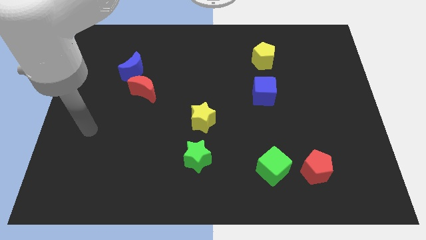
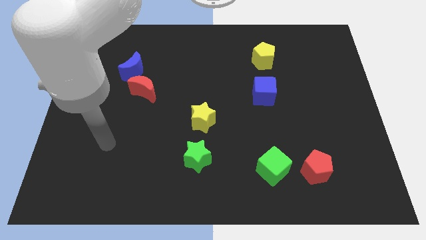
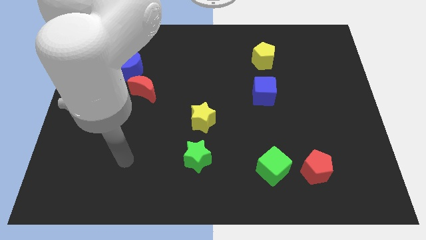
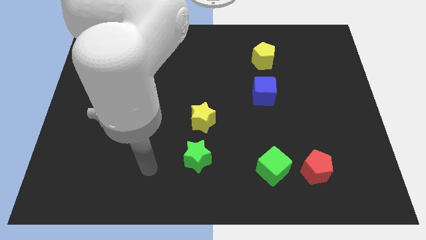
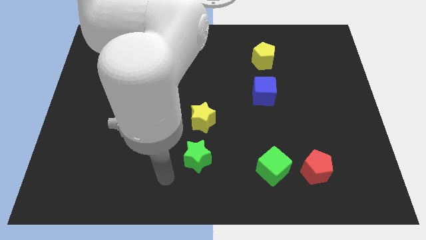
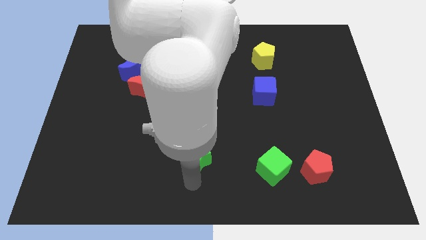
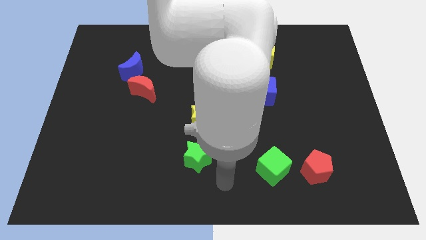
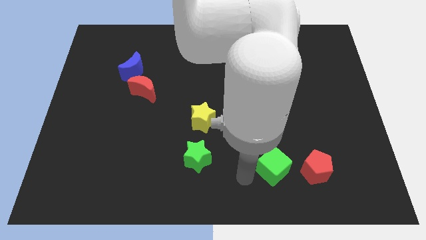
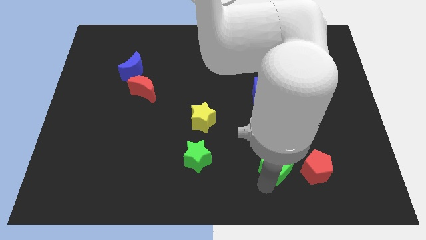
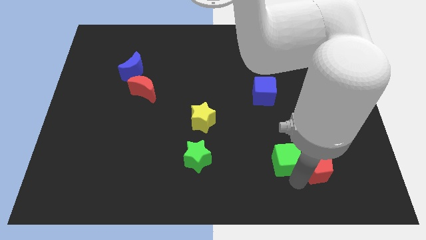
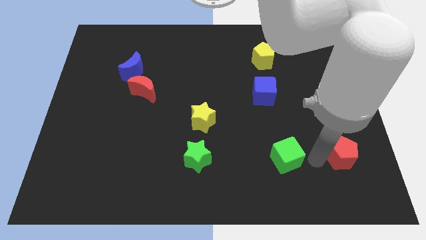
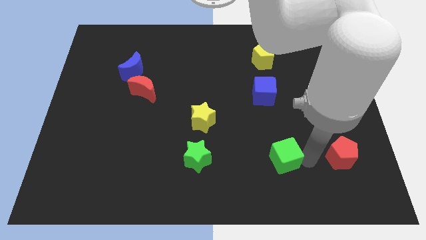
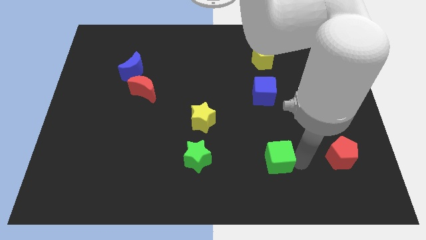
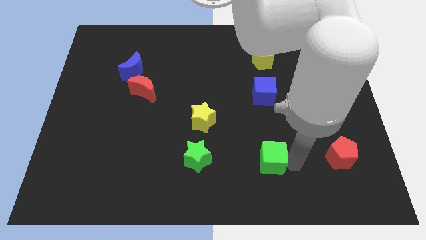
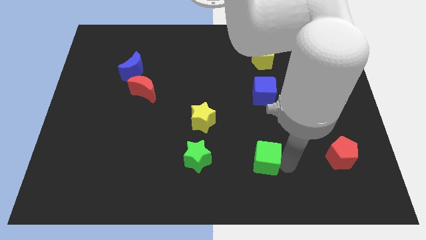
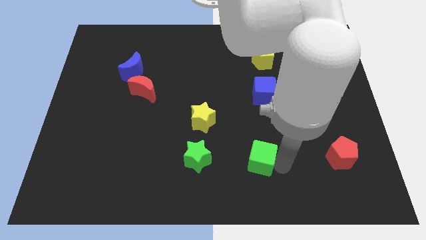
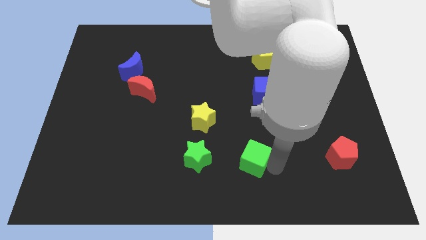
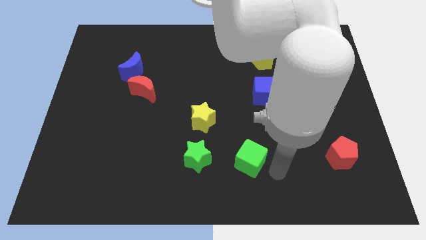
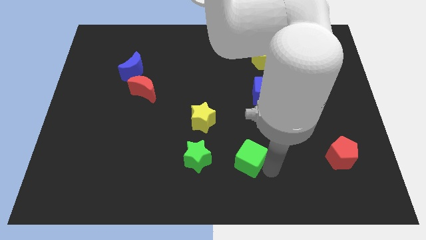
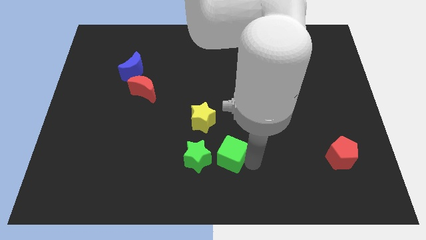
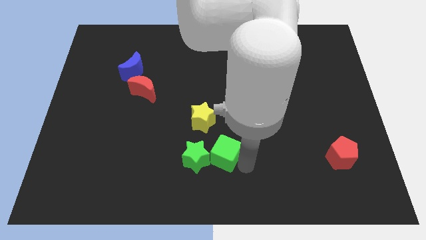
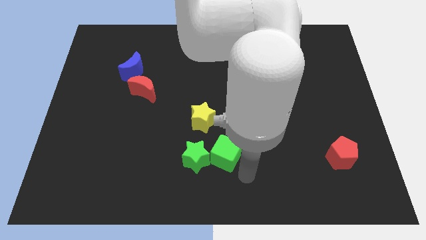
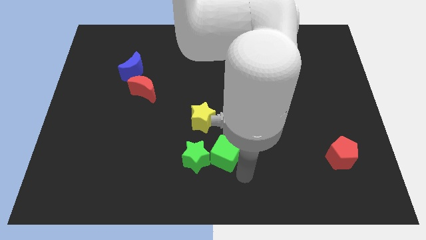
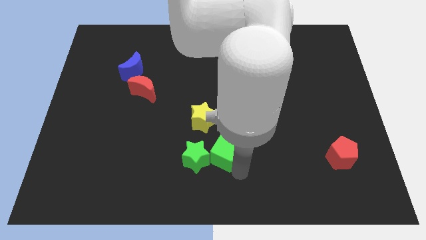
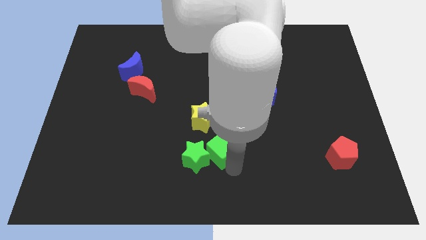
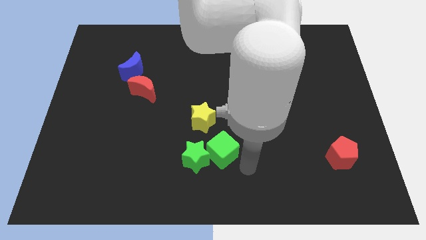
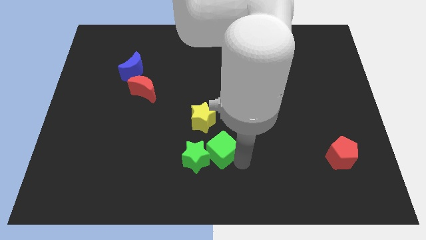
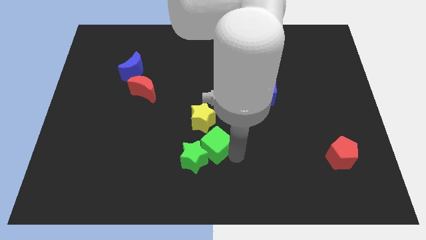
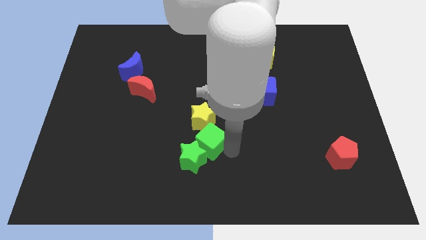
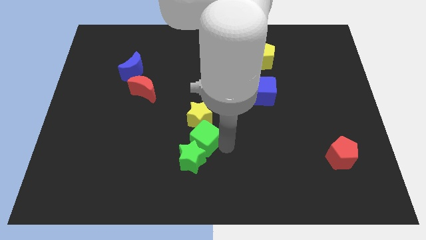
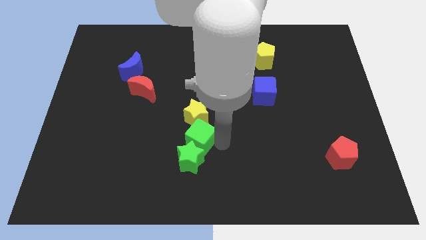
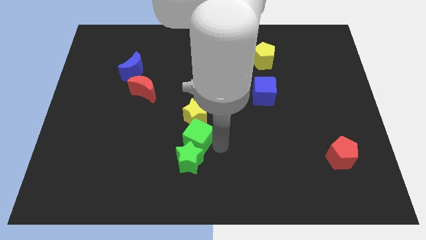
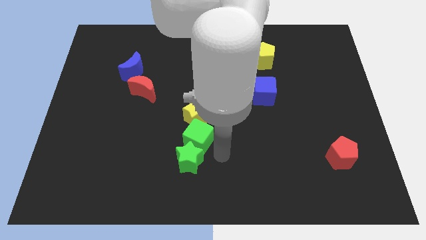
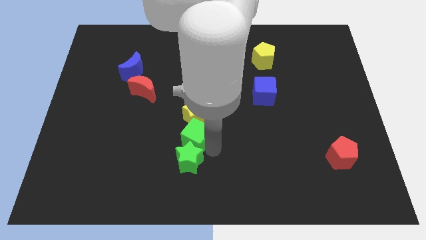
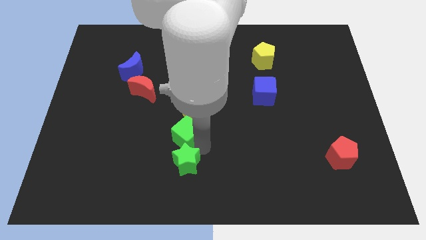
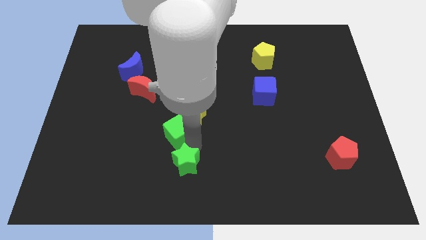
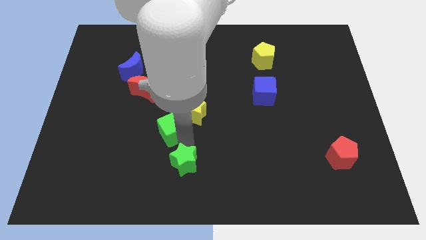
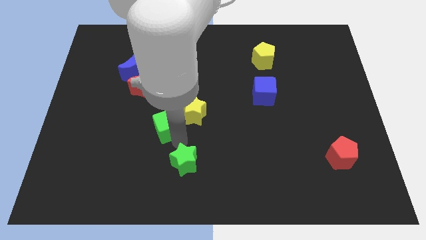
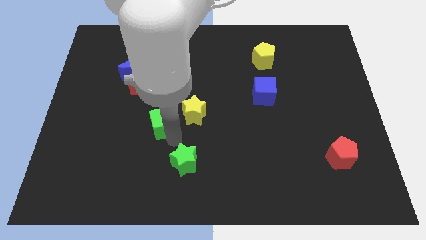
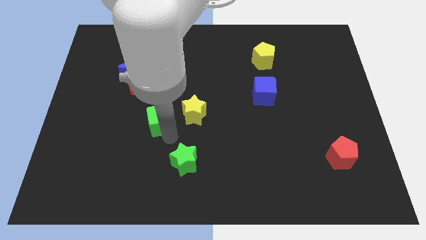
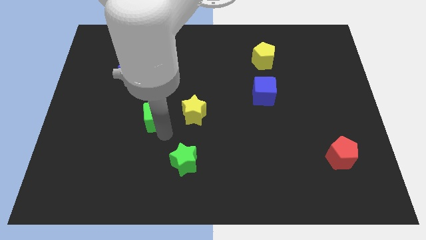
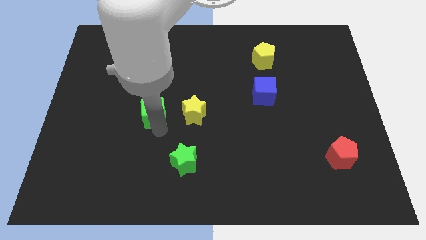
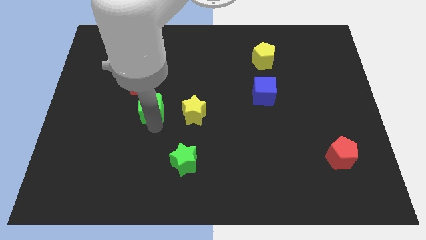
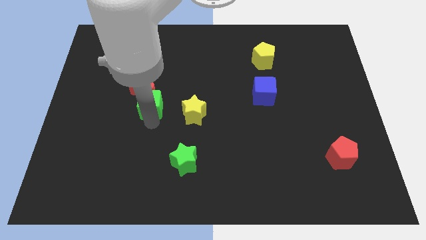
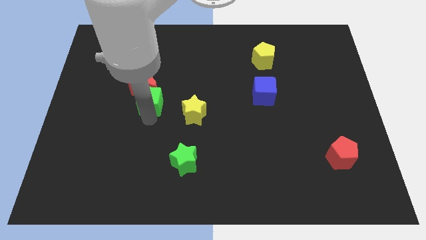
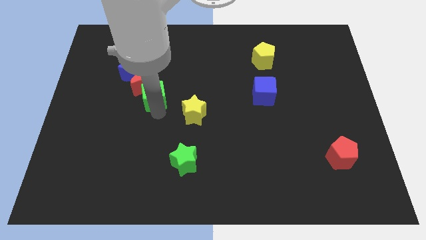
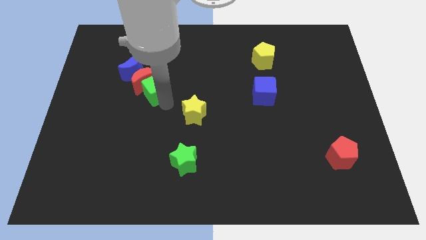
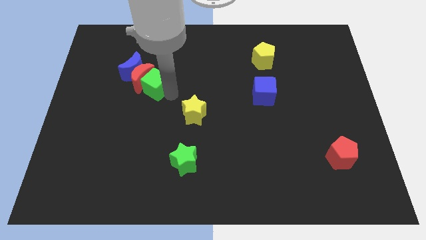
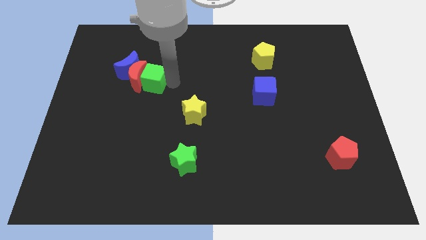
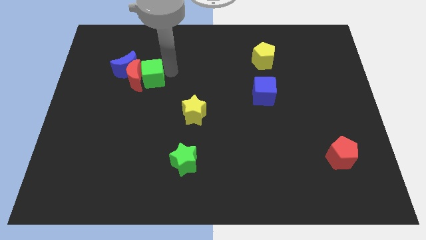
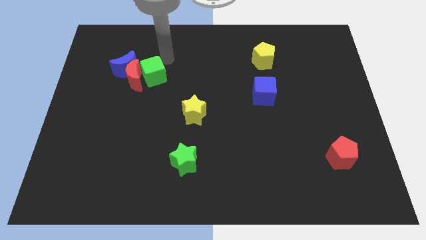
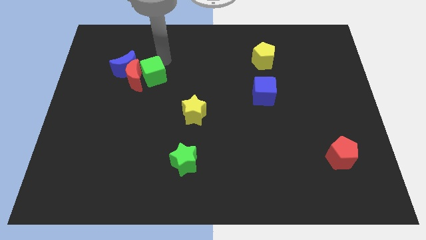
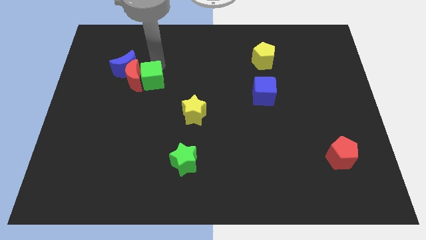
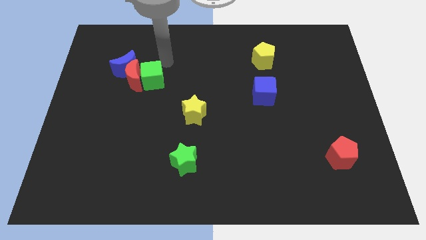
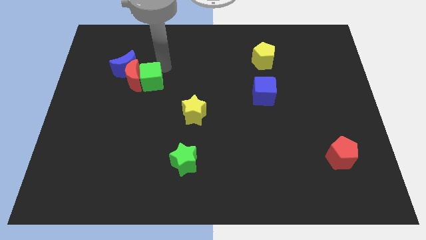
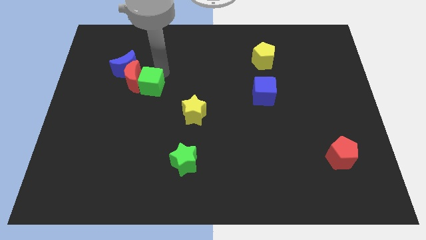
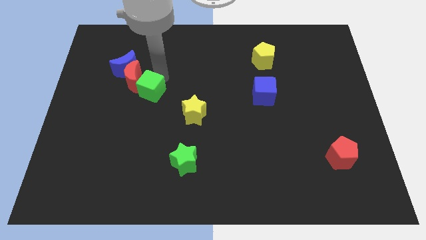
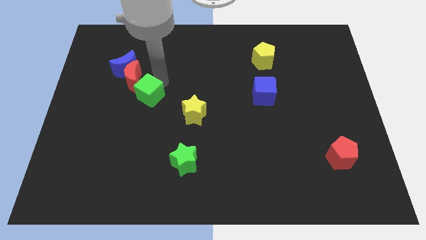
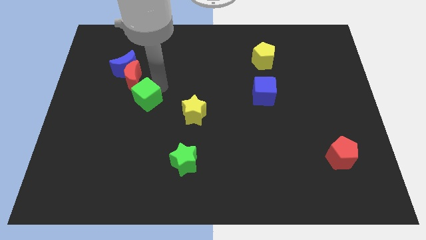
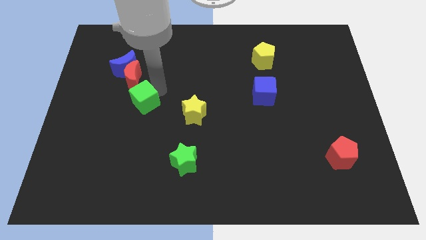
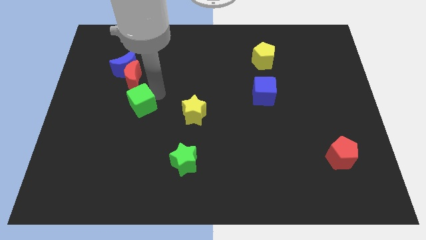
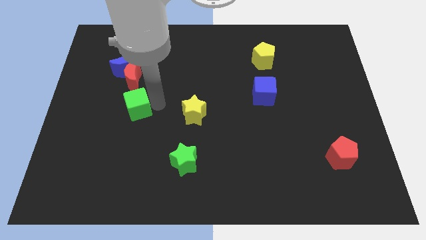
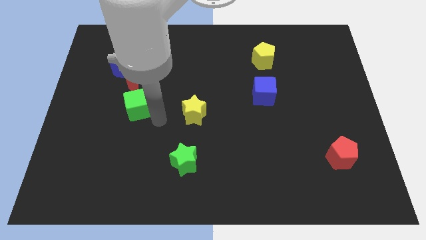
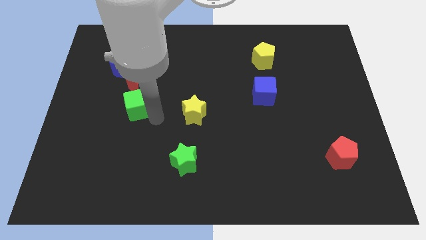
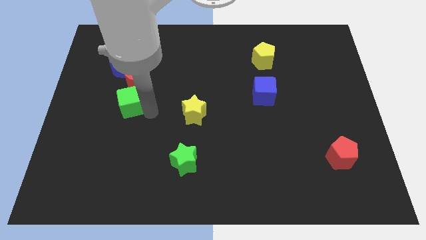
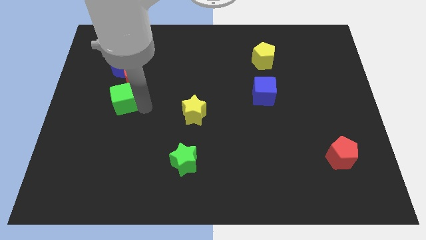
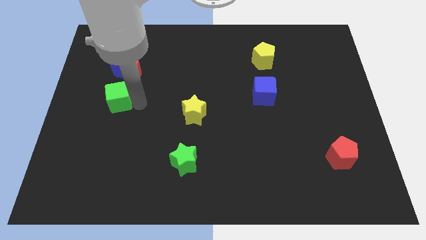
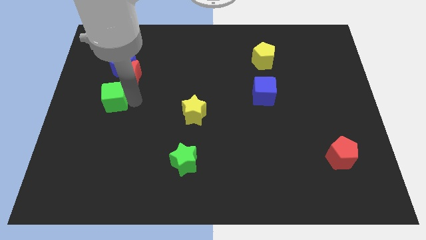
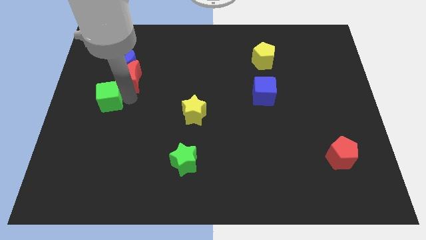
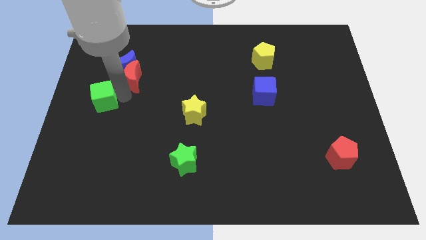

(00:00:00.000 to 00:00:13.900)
slide the green cube to the bottom left side of the blue moon
